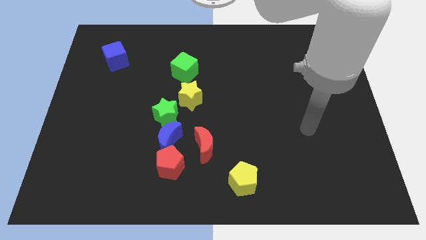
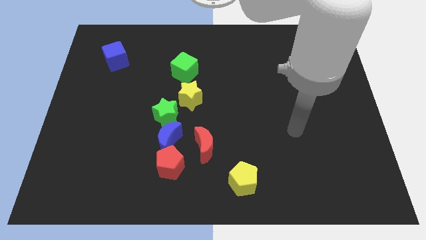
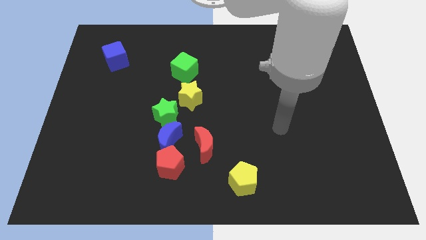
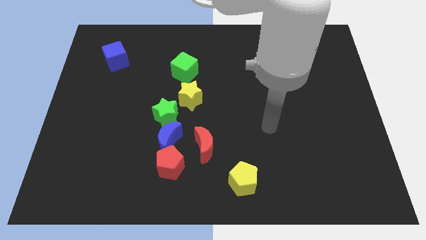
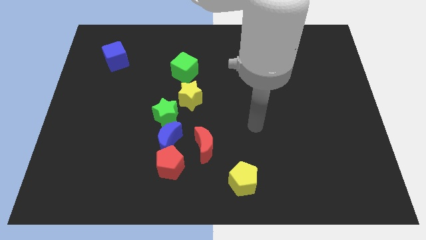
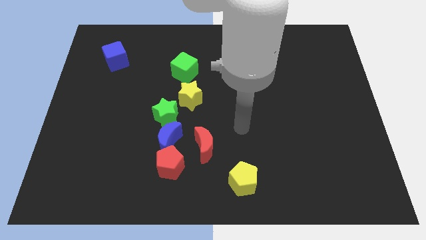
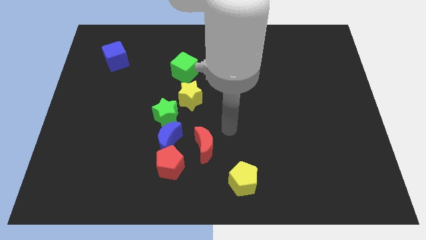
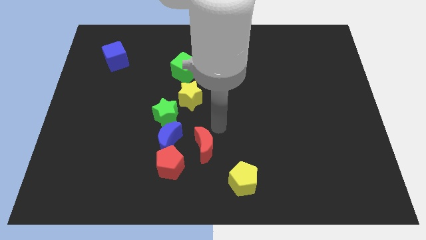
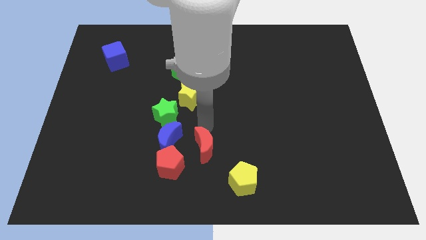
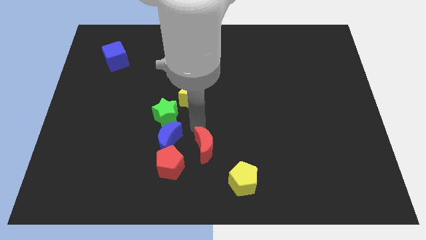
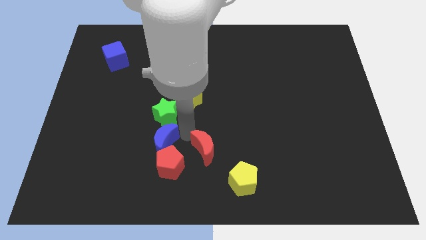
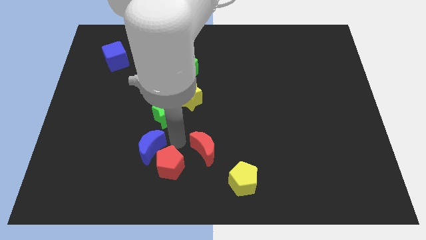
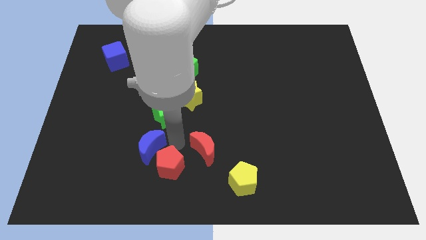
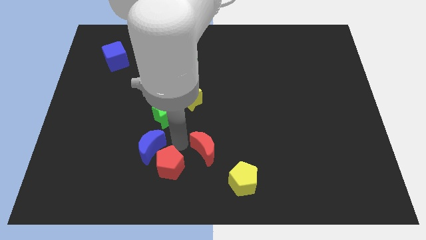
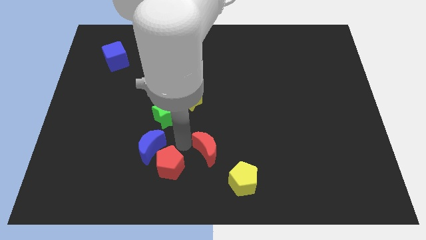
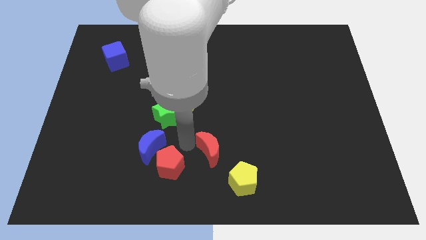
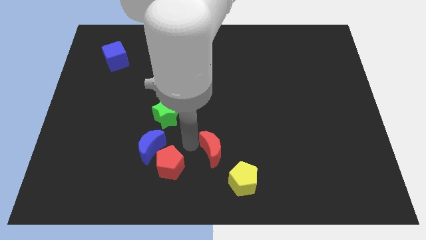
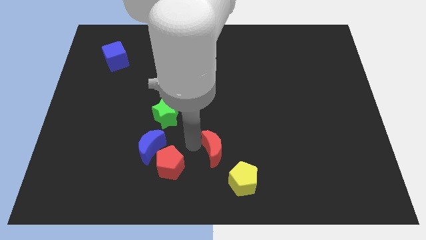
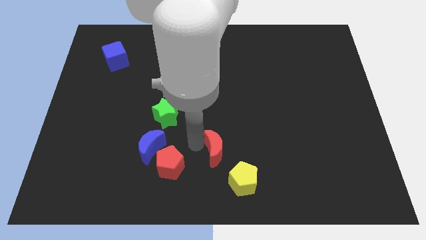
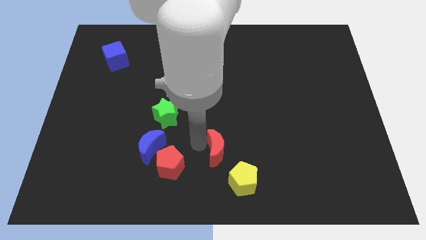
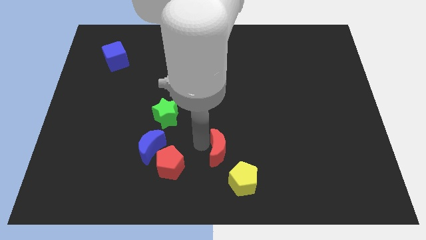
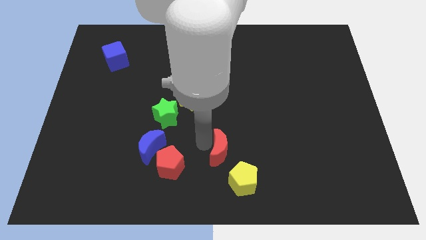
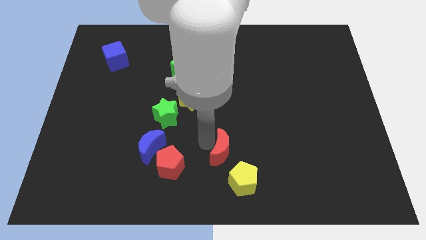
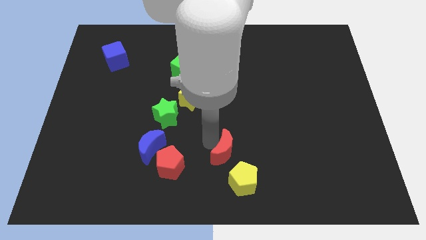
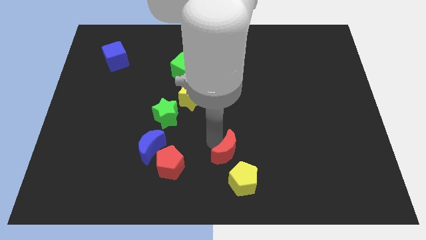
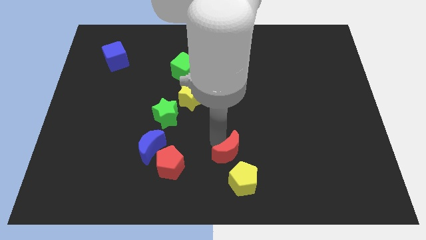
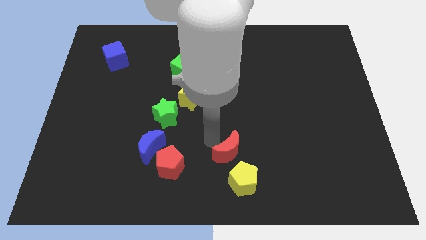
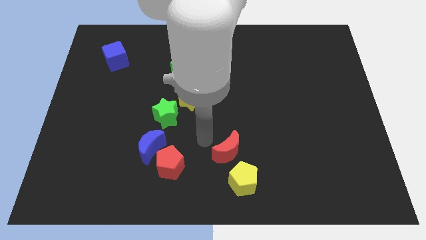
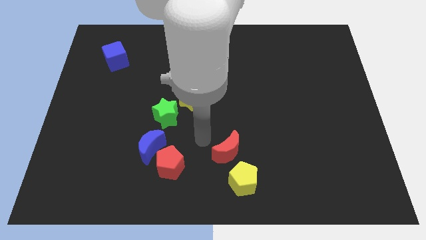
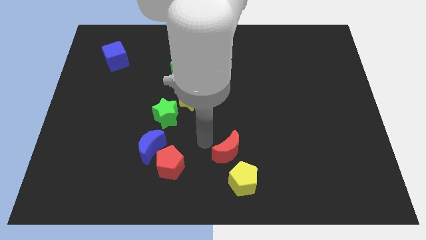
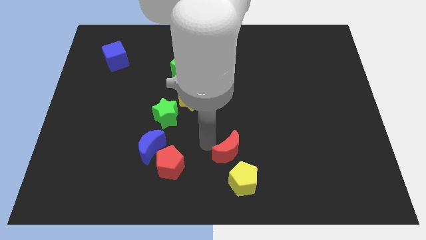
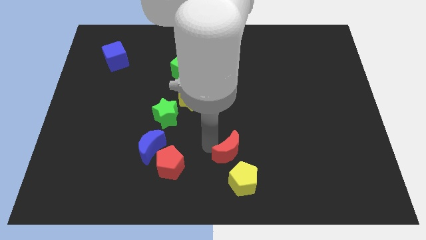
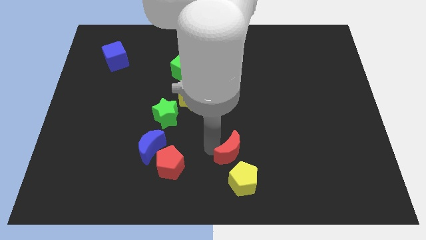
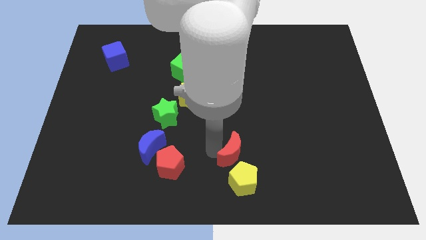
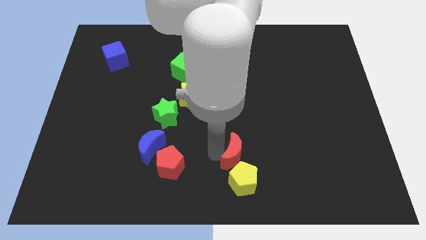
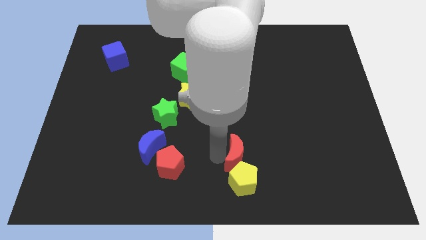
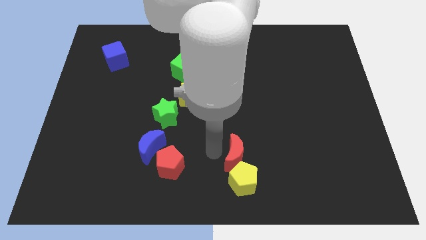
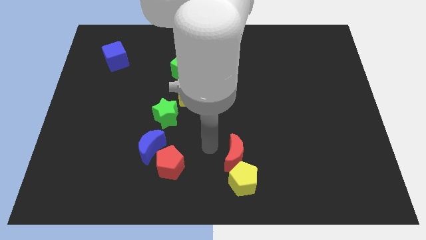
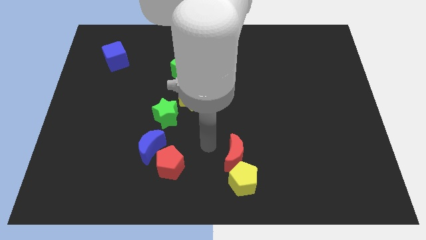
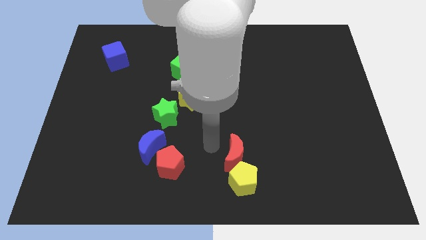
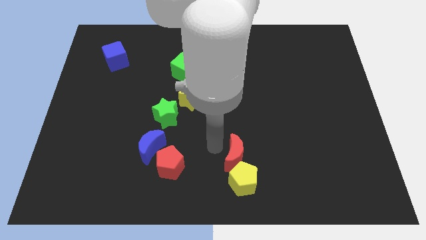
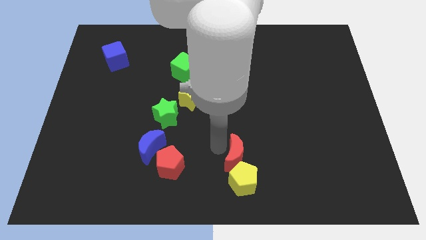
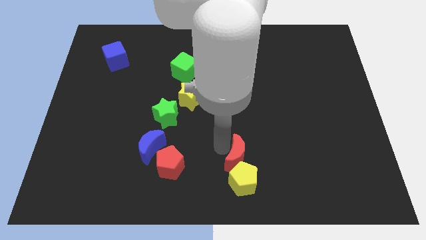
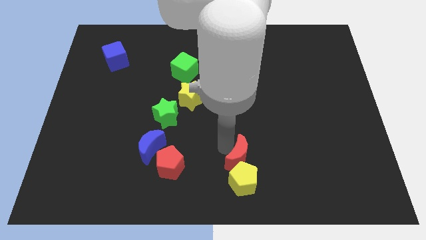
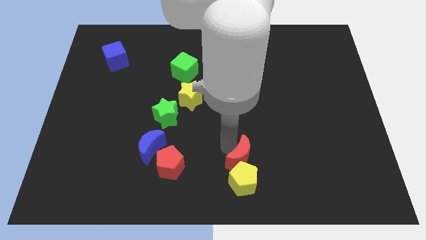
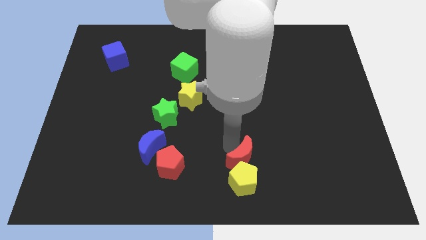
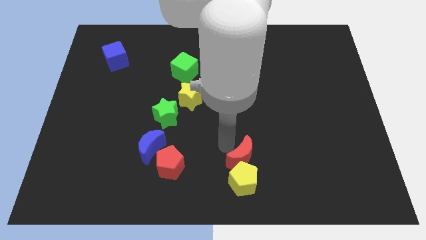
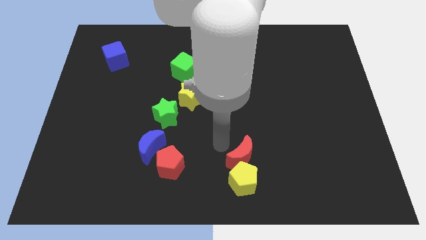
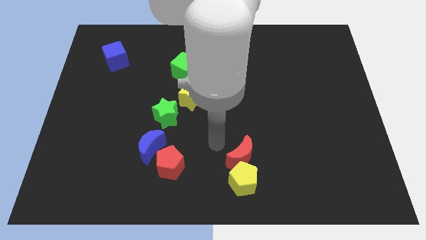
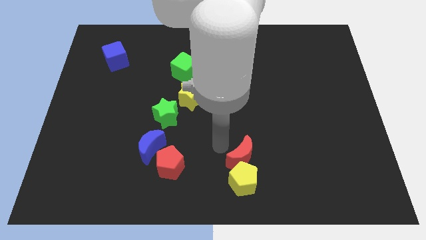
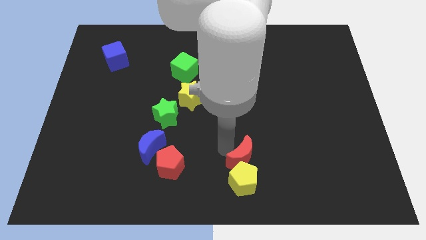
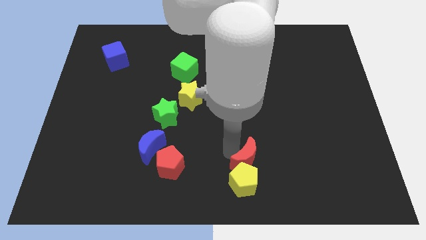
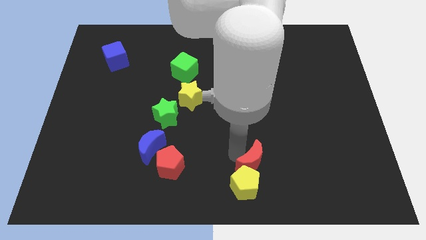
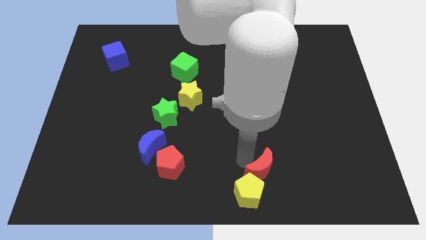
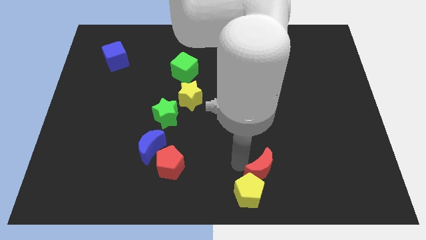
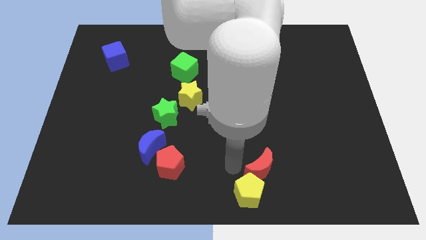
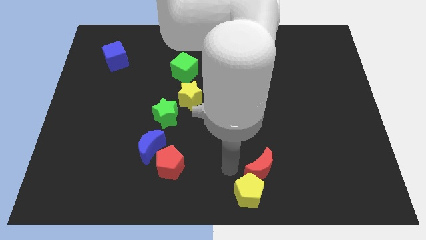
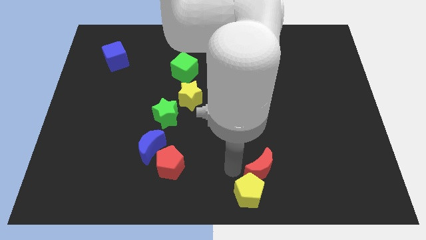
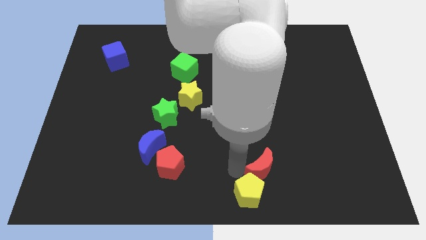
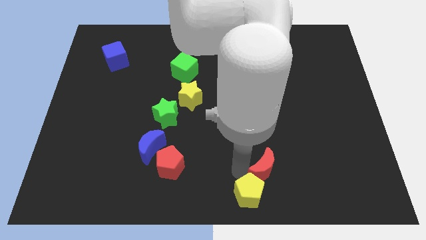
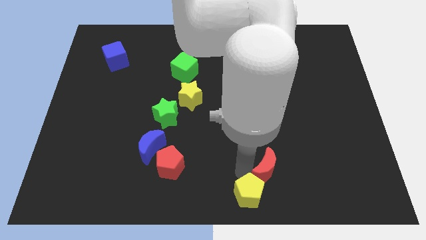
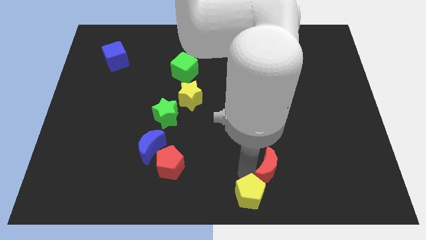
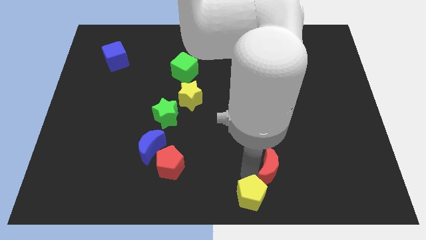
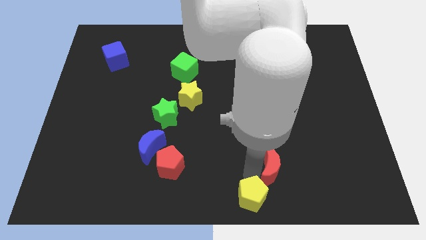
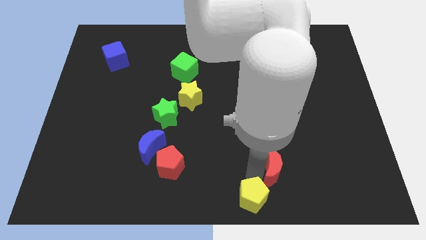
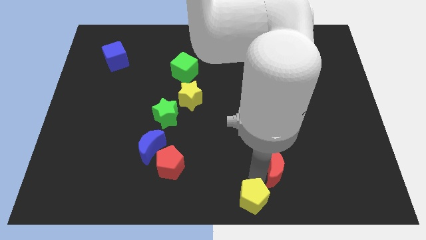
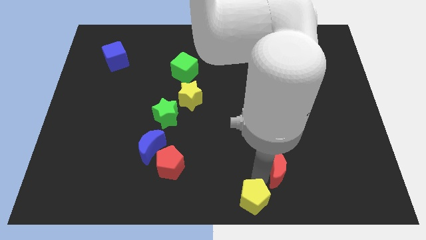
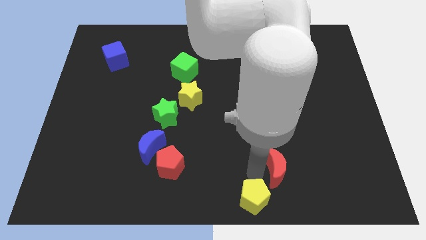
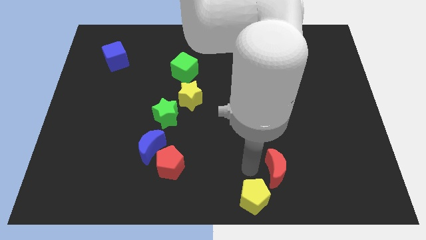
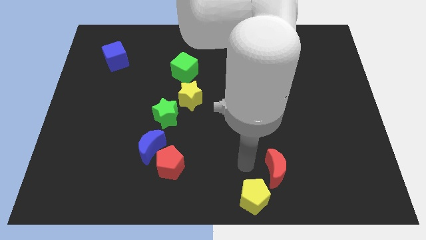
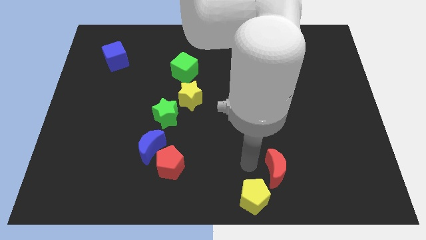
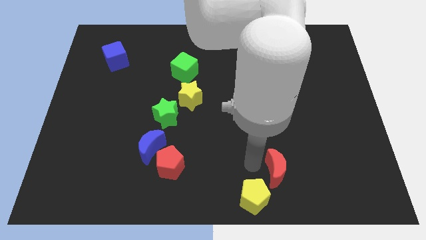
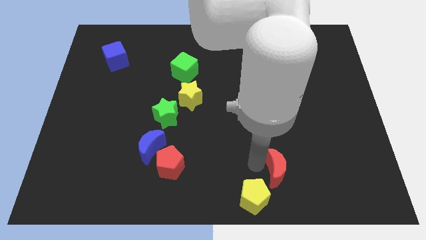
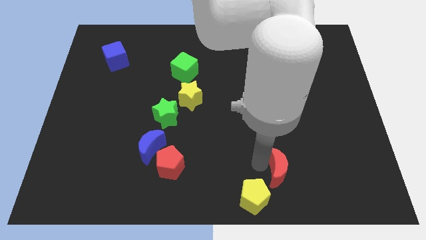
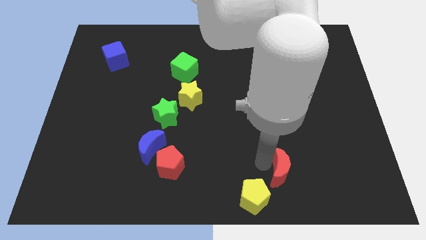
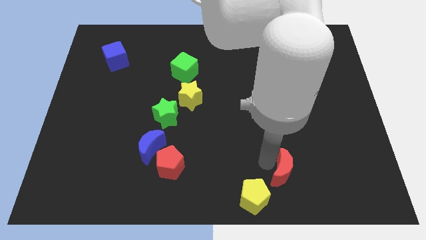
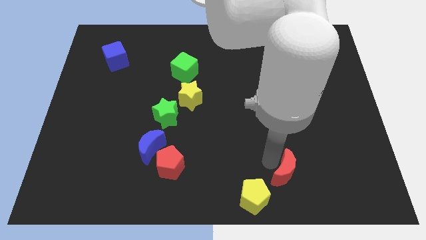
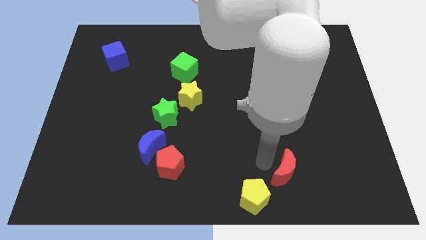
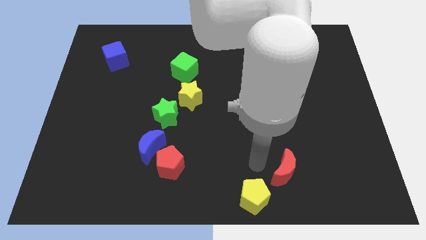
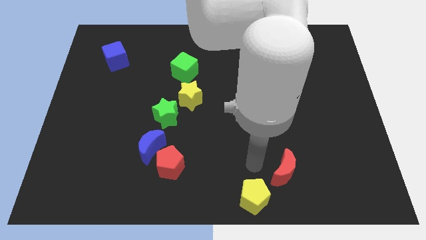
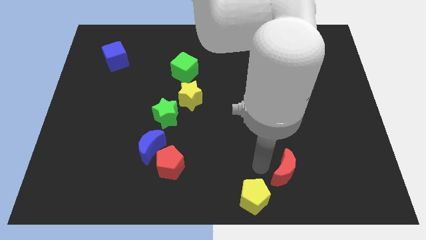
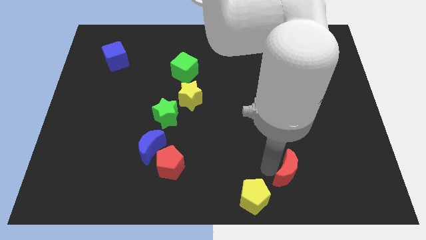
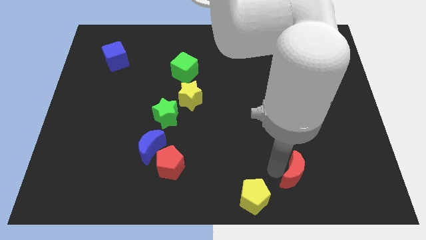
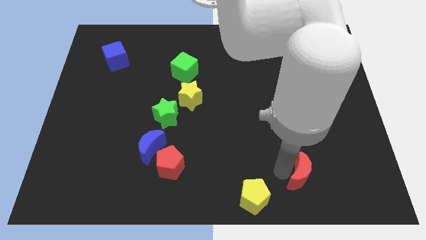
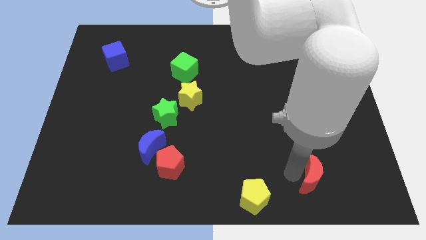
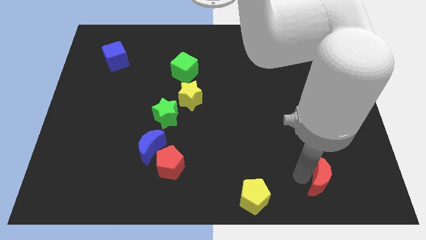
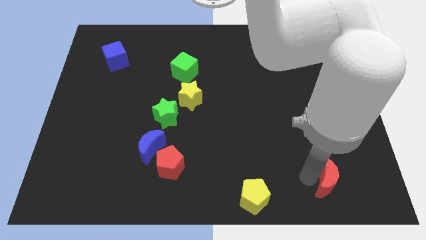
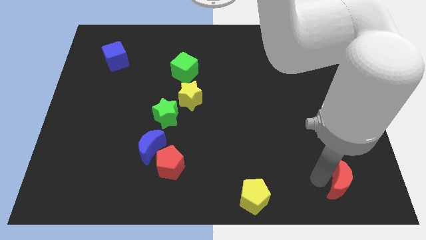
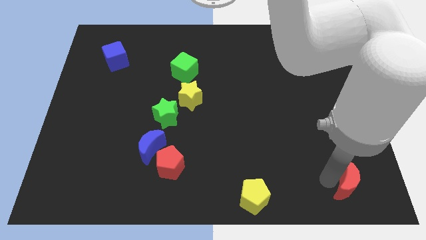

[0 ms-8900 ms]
slide the red moon to the bottom right of the board
